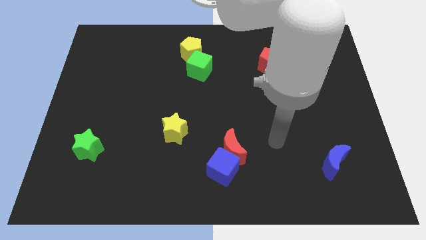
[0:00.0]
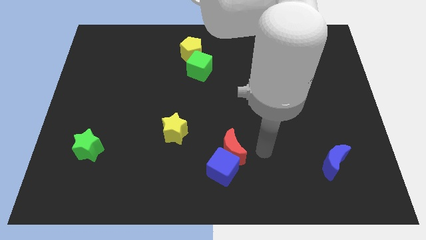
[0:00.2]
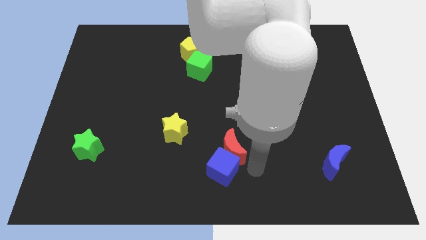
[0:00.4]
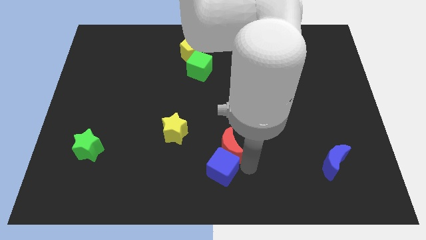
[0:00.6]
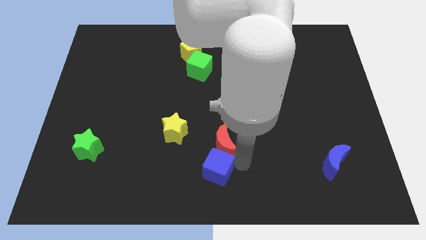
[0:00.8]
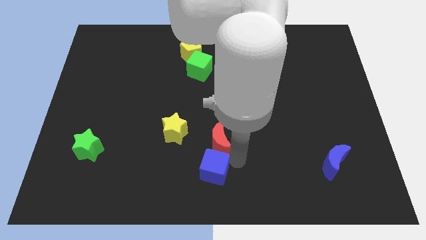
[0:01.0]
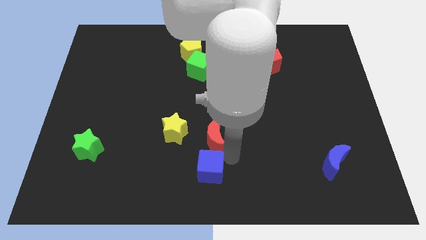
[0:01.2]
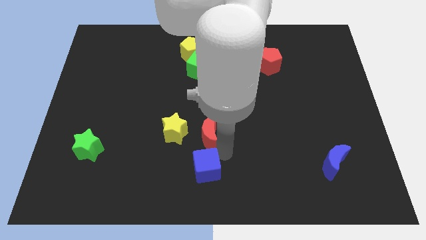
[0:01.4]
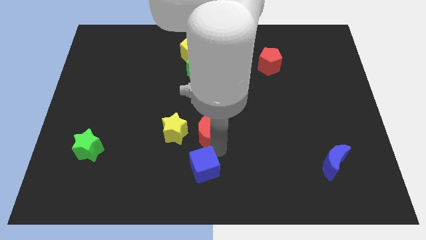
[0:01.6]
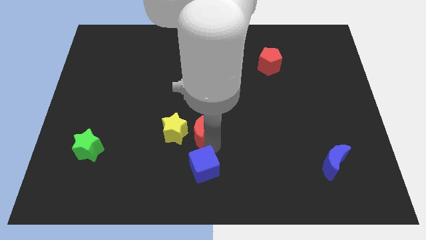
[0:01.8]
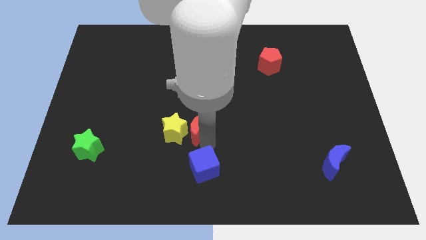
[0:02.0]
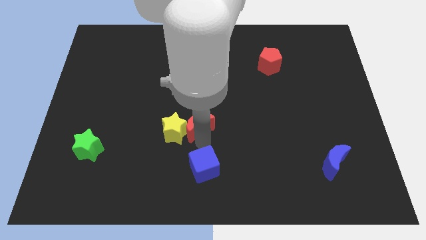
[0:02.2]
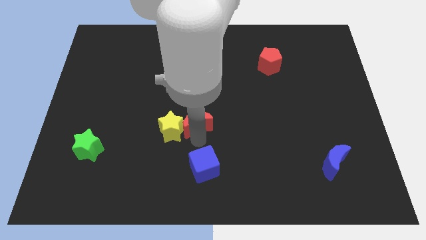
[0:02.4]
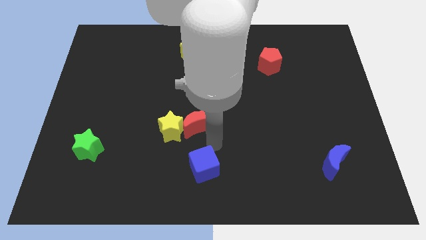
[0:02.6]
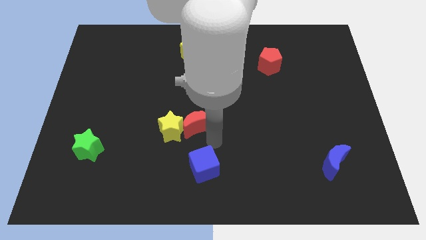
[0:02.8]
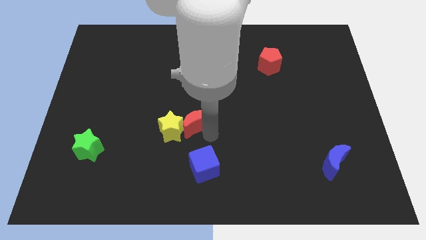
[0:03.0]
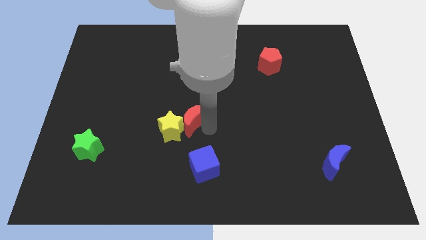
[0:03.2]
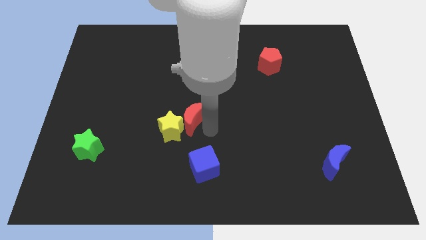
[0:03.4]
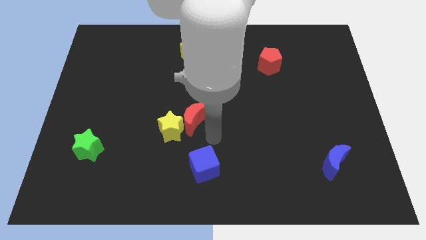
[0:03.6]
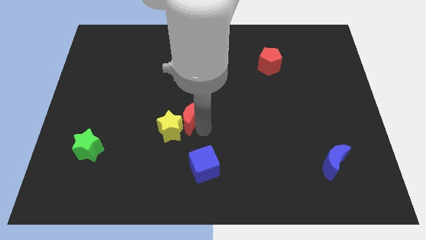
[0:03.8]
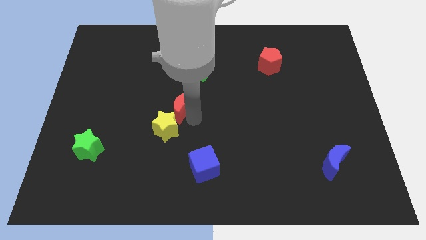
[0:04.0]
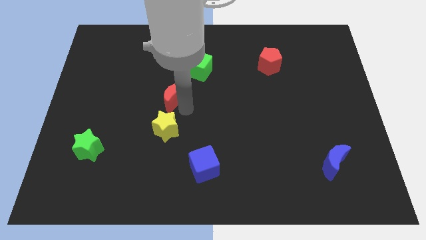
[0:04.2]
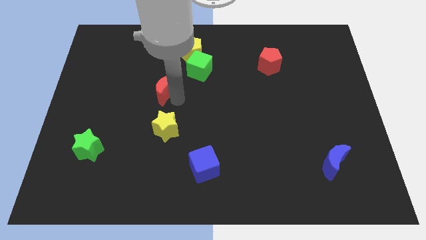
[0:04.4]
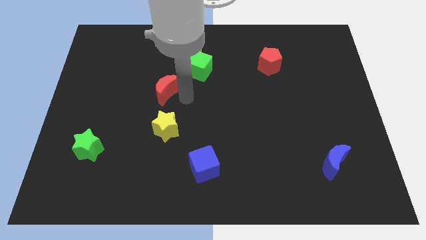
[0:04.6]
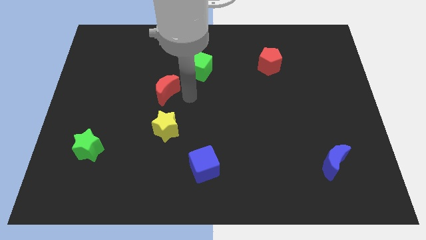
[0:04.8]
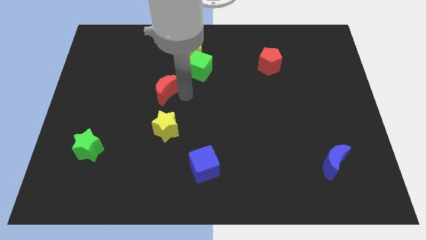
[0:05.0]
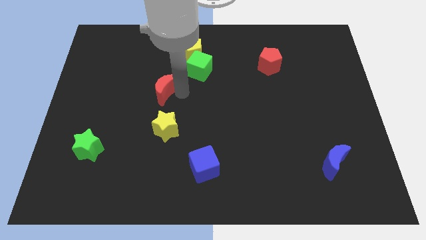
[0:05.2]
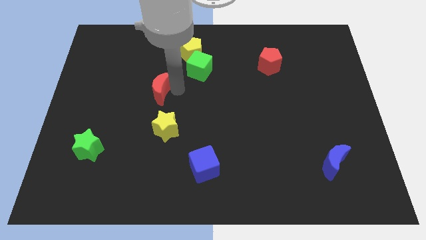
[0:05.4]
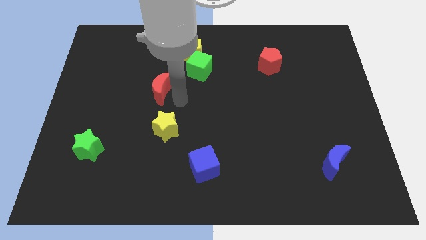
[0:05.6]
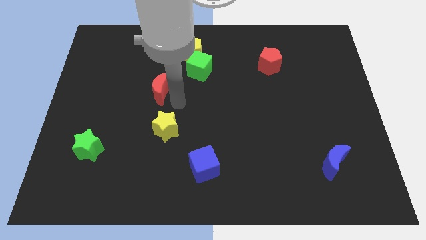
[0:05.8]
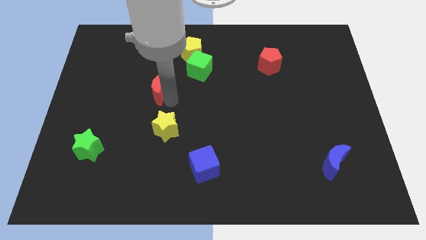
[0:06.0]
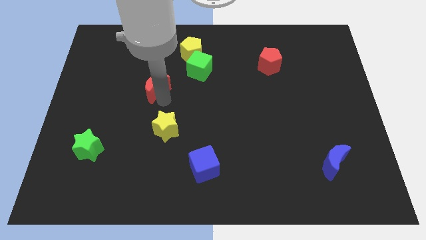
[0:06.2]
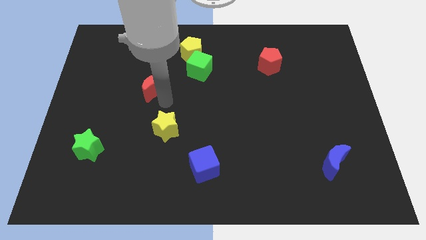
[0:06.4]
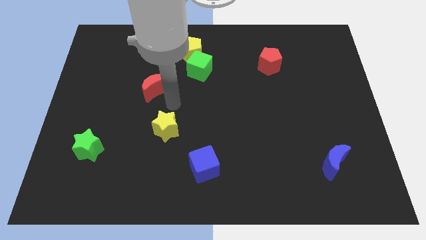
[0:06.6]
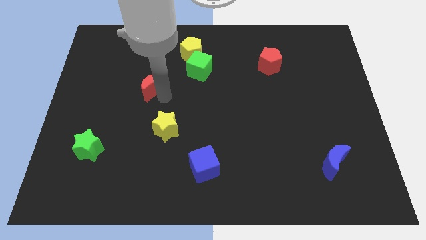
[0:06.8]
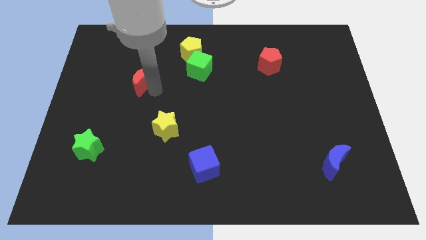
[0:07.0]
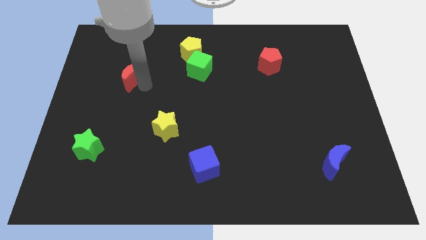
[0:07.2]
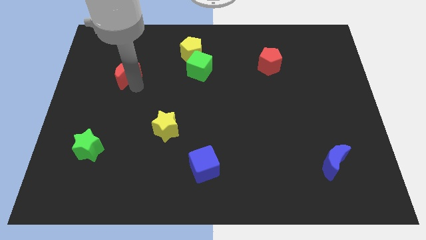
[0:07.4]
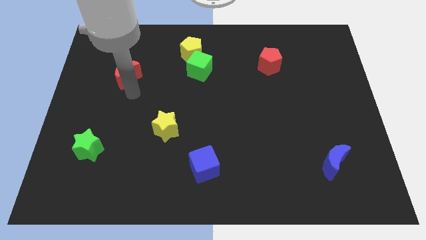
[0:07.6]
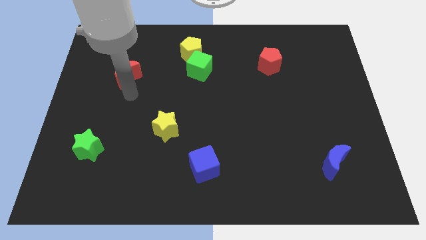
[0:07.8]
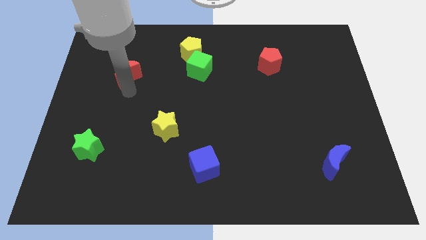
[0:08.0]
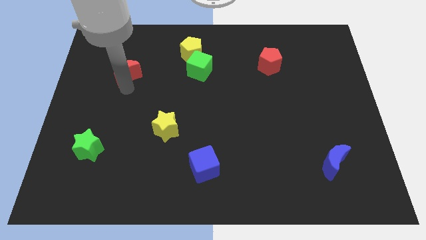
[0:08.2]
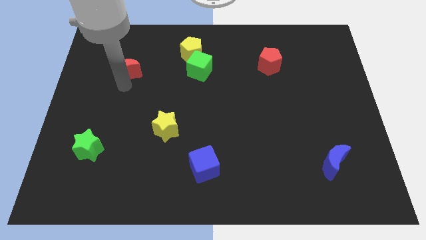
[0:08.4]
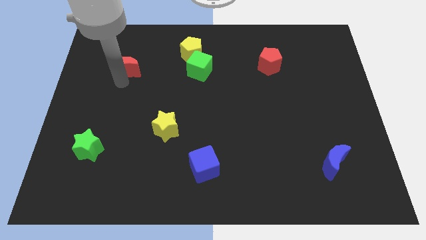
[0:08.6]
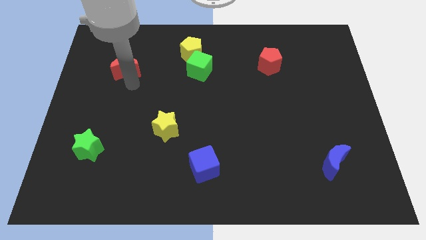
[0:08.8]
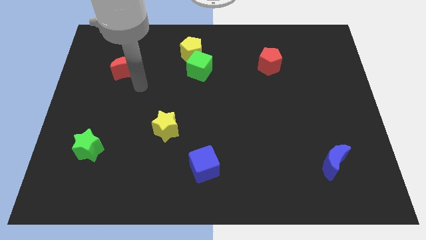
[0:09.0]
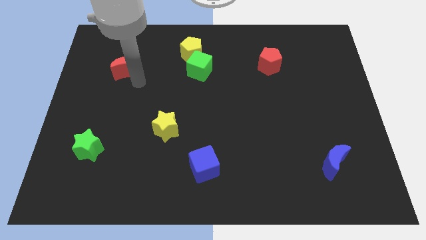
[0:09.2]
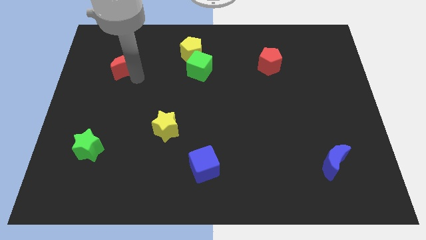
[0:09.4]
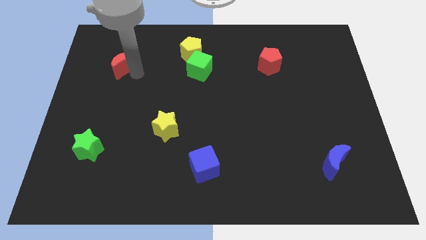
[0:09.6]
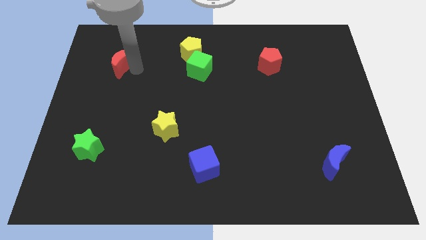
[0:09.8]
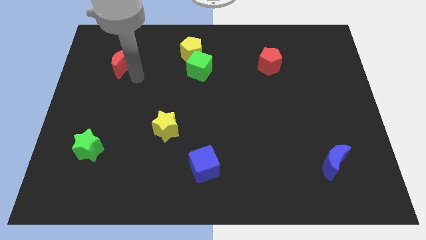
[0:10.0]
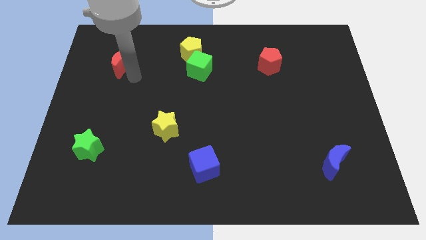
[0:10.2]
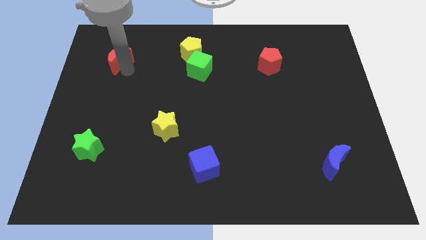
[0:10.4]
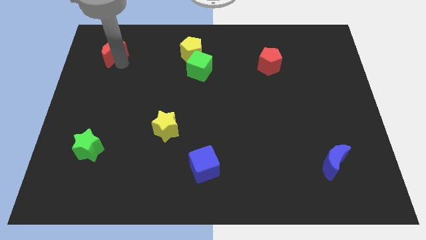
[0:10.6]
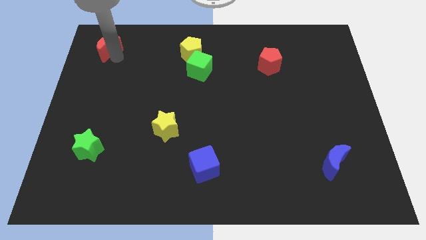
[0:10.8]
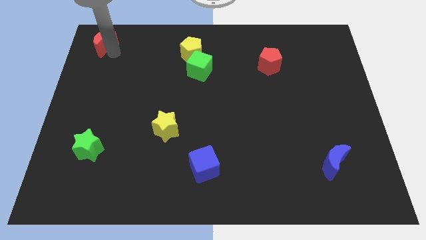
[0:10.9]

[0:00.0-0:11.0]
slide the red moon to the top left
